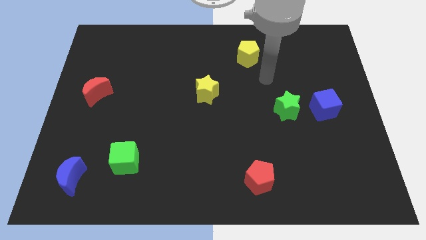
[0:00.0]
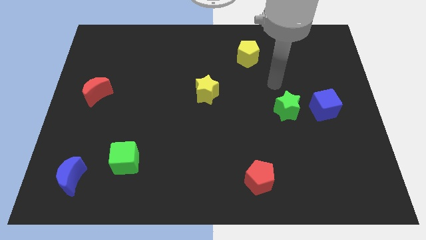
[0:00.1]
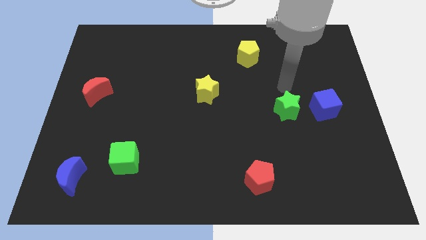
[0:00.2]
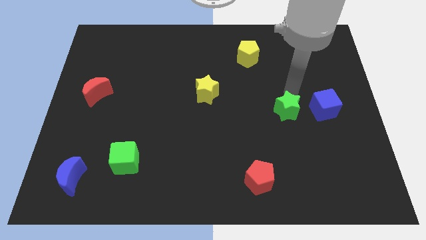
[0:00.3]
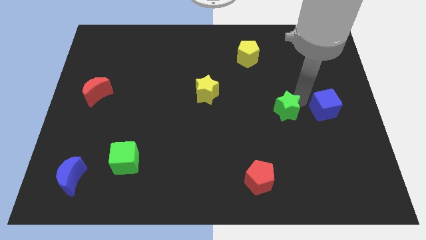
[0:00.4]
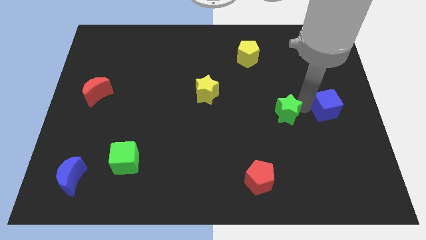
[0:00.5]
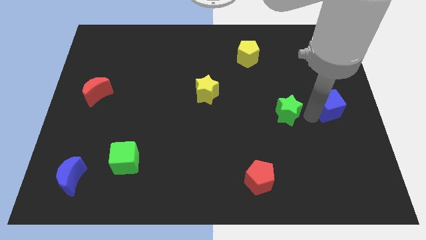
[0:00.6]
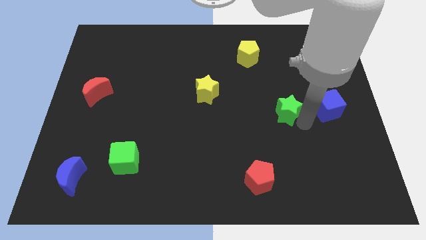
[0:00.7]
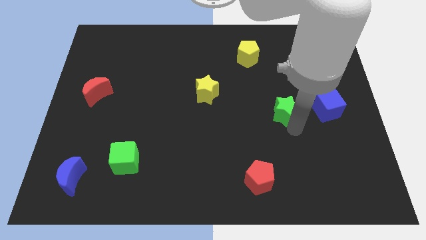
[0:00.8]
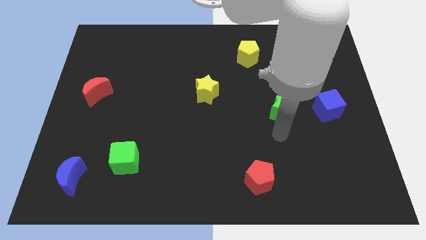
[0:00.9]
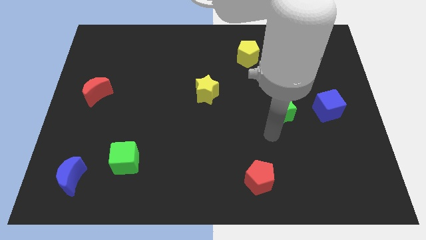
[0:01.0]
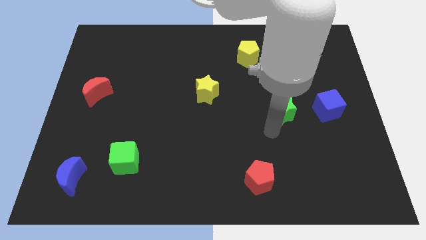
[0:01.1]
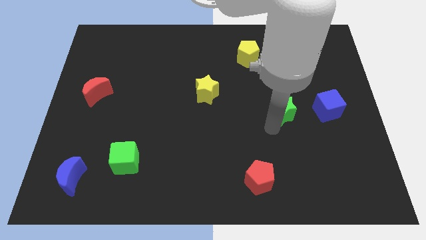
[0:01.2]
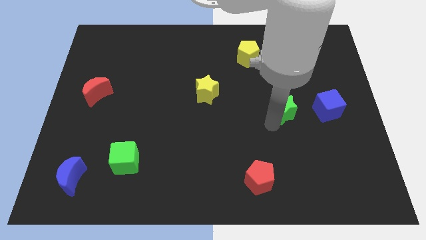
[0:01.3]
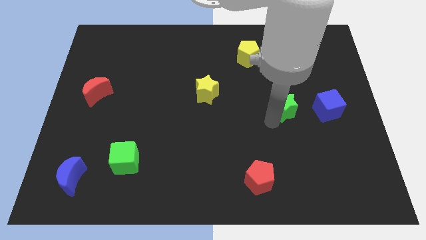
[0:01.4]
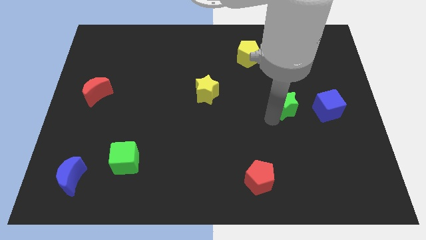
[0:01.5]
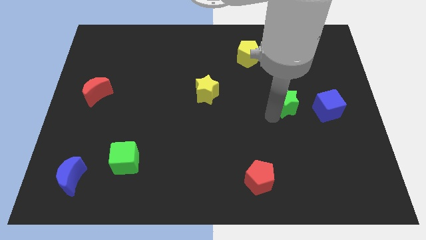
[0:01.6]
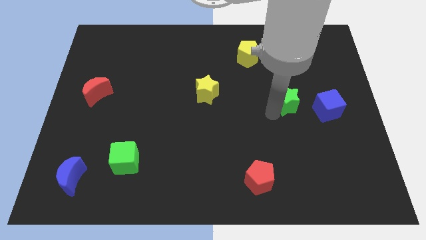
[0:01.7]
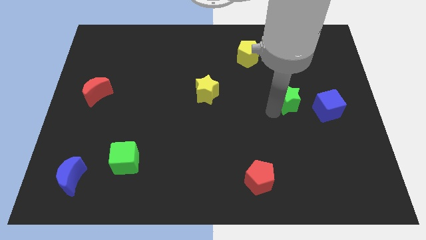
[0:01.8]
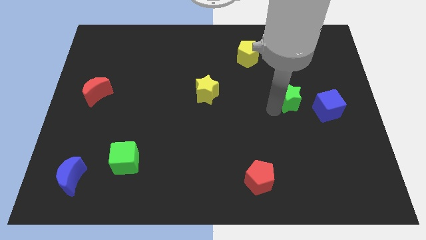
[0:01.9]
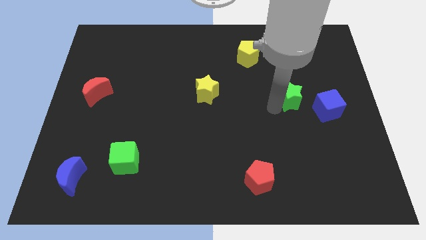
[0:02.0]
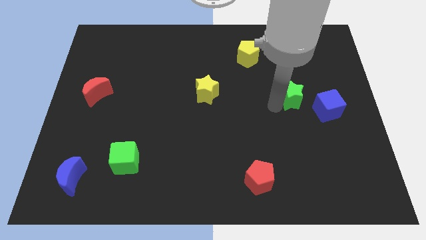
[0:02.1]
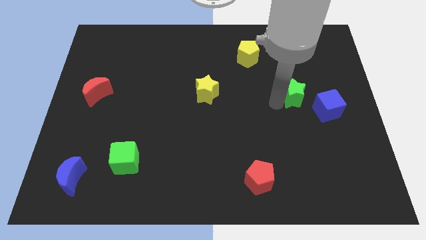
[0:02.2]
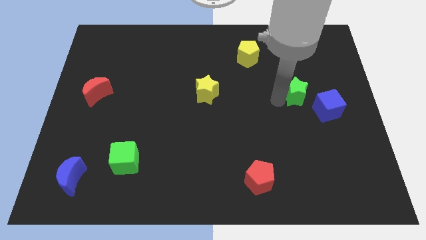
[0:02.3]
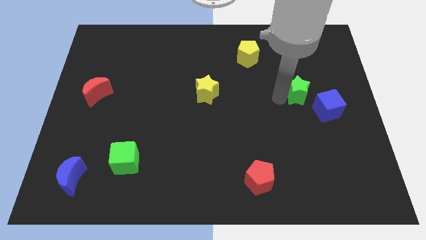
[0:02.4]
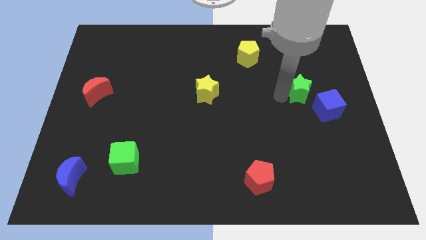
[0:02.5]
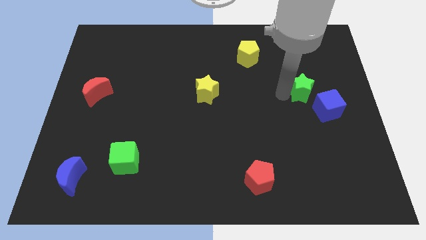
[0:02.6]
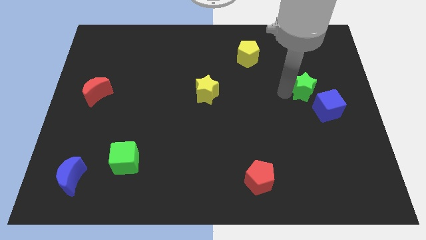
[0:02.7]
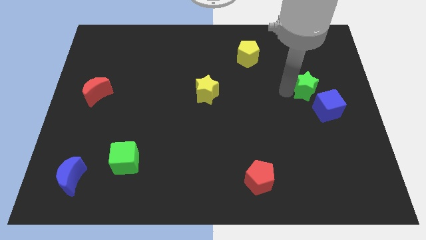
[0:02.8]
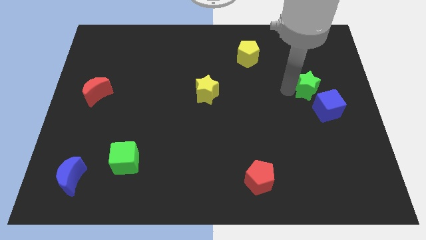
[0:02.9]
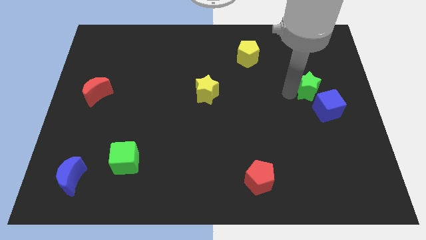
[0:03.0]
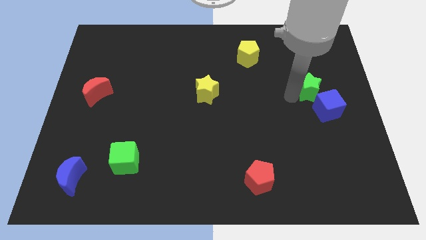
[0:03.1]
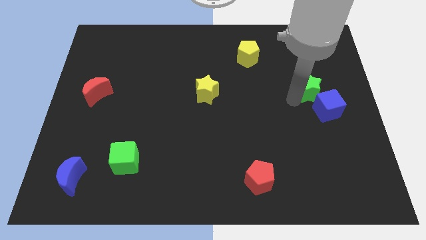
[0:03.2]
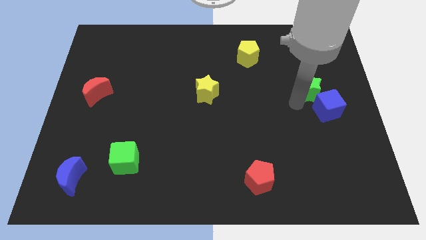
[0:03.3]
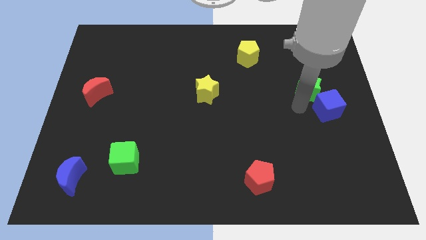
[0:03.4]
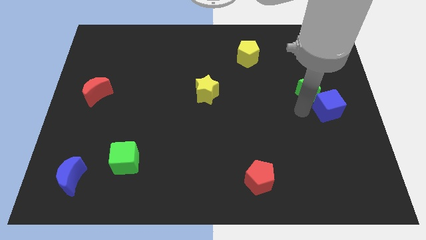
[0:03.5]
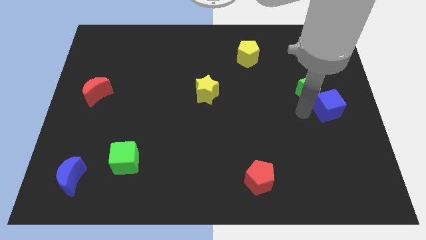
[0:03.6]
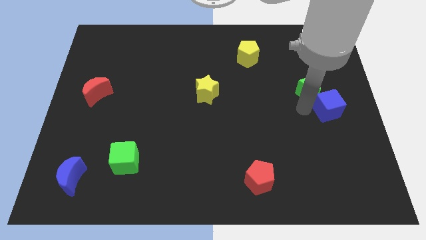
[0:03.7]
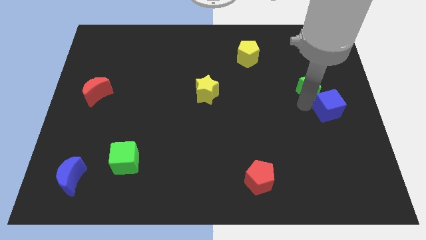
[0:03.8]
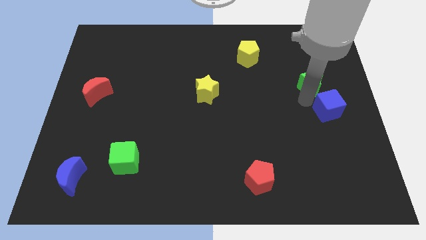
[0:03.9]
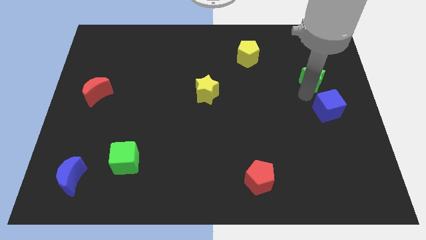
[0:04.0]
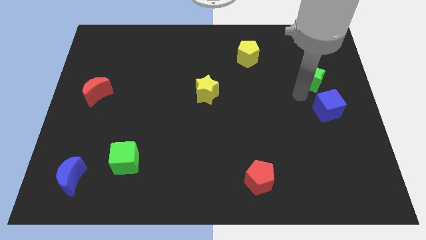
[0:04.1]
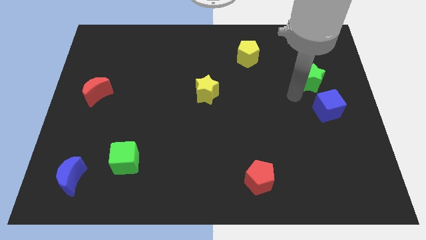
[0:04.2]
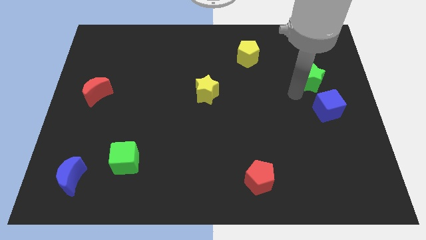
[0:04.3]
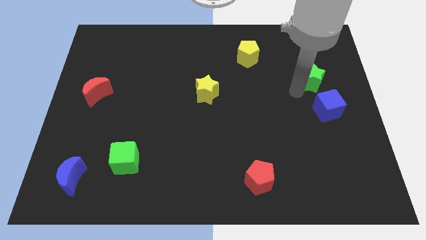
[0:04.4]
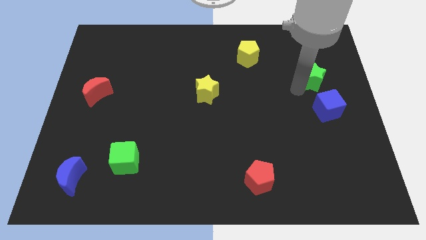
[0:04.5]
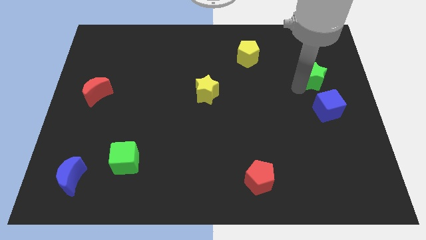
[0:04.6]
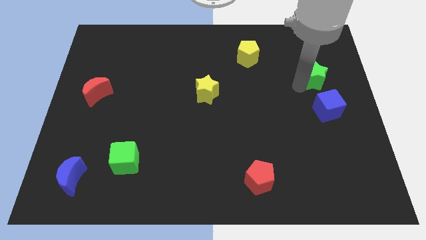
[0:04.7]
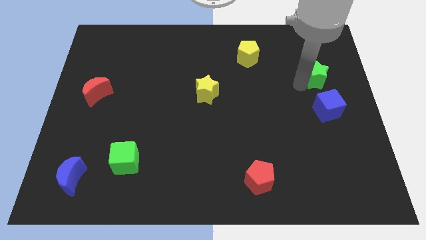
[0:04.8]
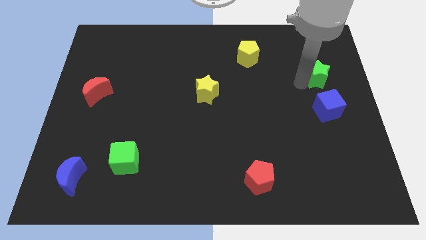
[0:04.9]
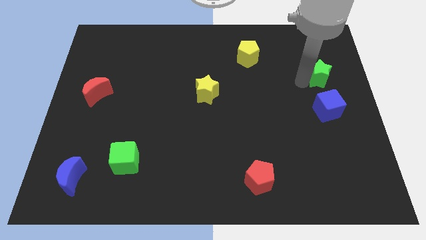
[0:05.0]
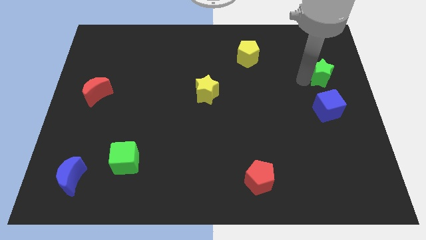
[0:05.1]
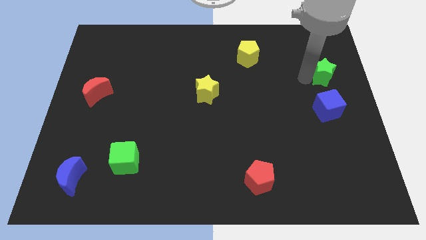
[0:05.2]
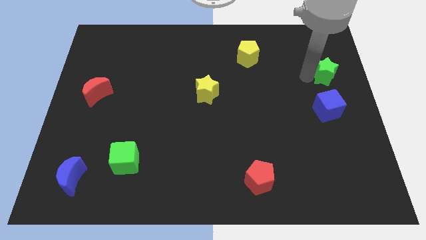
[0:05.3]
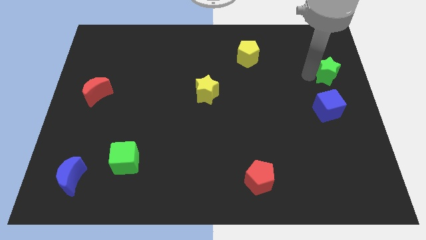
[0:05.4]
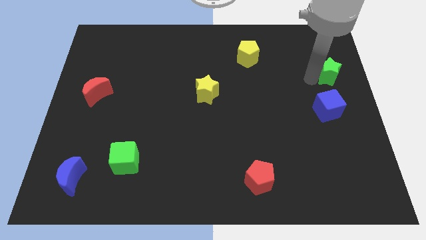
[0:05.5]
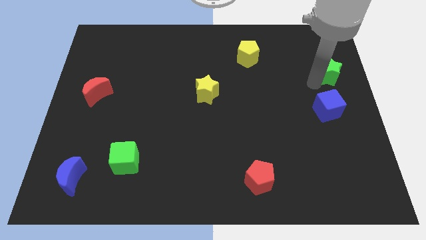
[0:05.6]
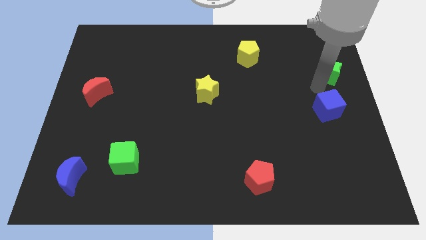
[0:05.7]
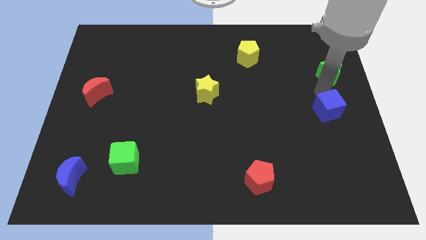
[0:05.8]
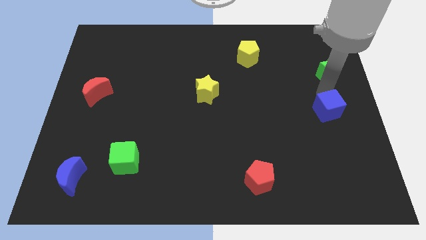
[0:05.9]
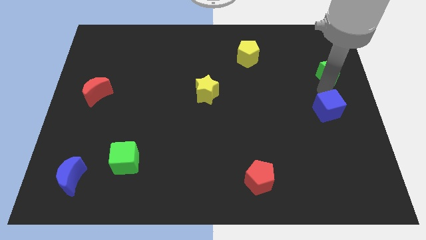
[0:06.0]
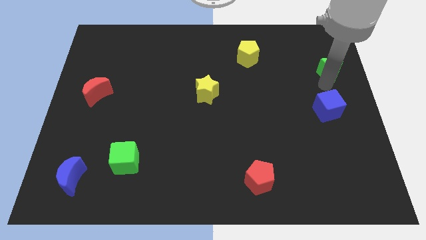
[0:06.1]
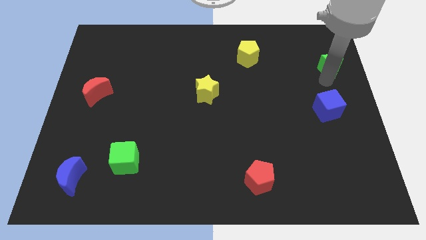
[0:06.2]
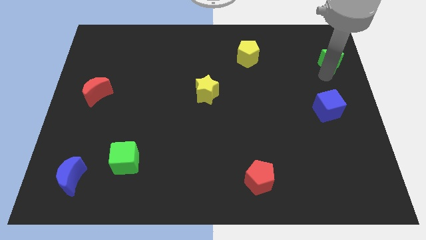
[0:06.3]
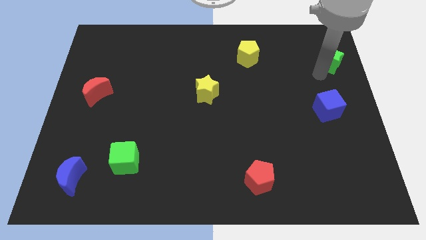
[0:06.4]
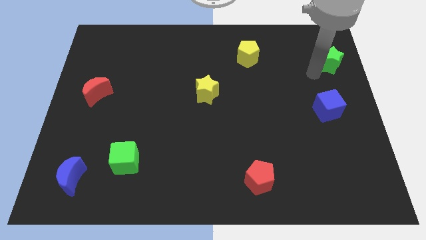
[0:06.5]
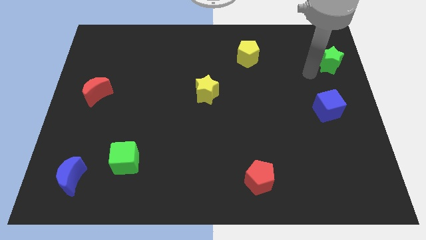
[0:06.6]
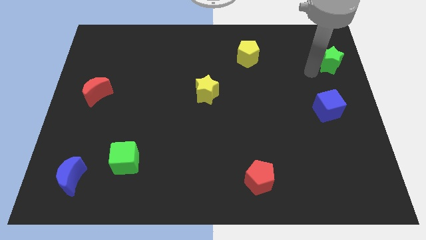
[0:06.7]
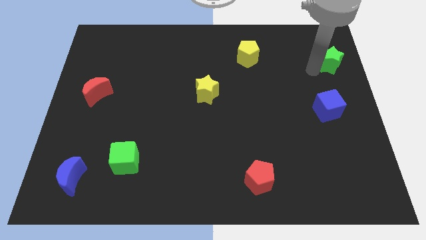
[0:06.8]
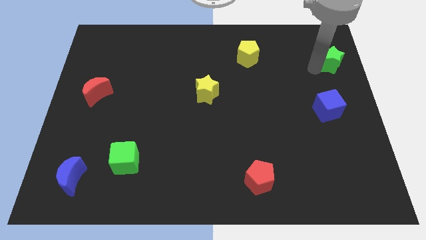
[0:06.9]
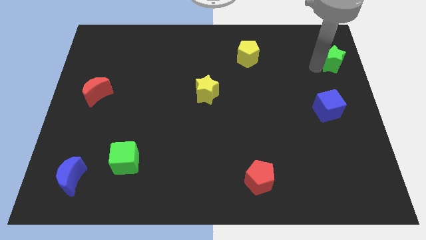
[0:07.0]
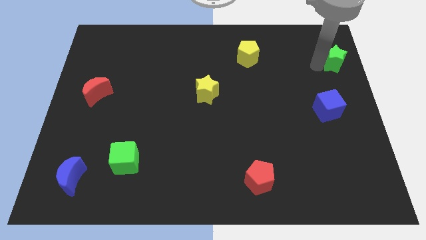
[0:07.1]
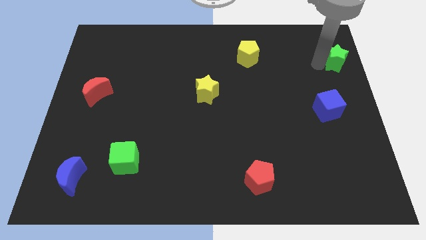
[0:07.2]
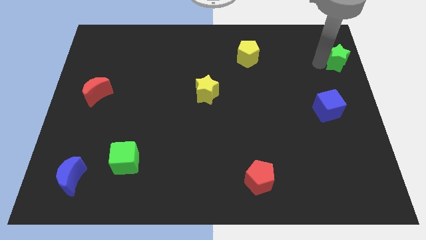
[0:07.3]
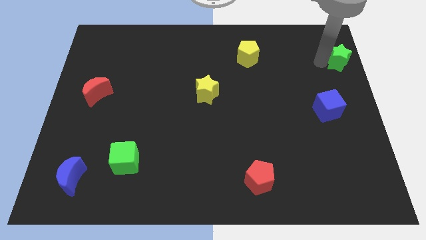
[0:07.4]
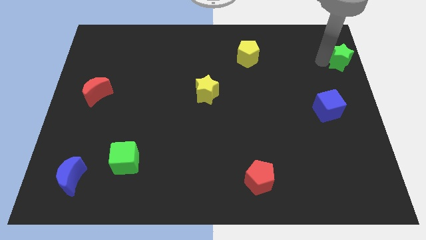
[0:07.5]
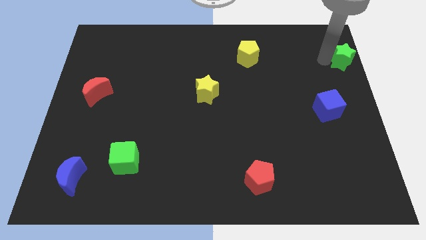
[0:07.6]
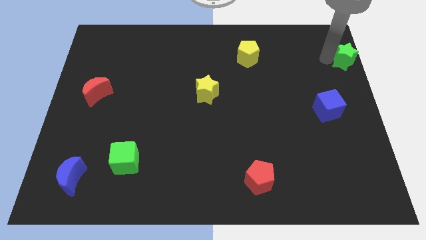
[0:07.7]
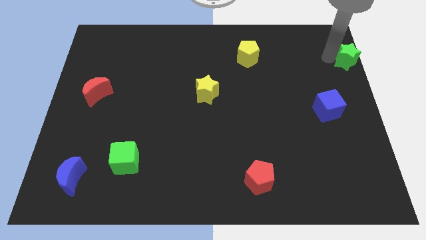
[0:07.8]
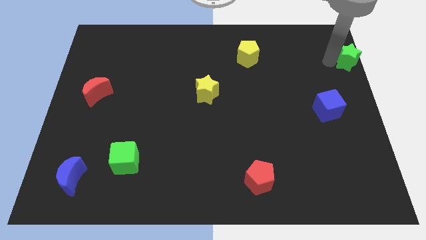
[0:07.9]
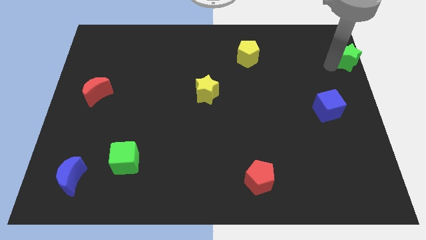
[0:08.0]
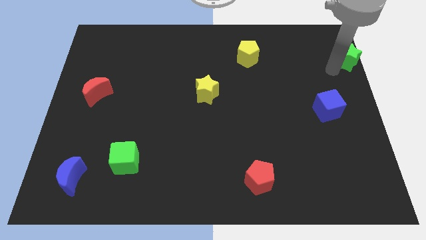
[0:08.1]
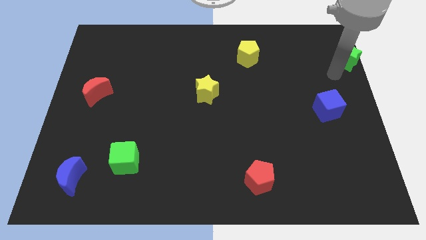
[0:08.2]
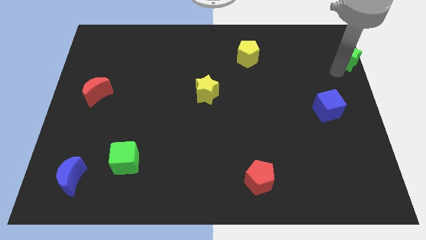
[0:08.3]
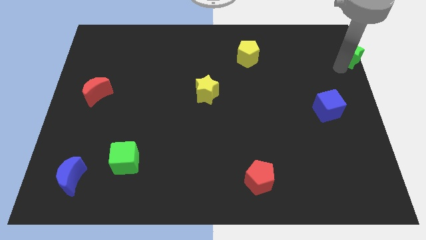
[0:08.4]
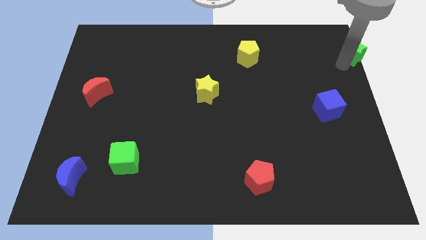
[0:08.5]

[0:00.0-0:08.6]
slide the green star to the top right corner
